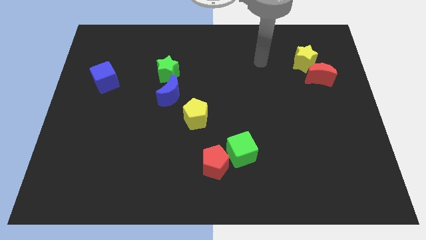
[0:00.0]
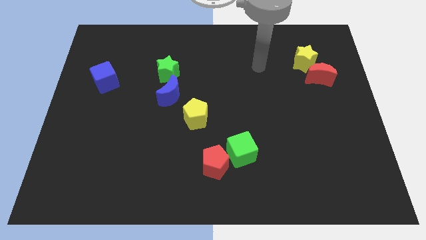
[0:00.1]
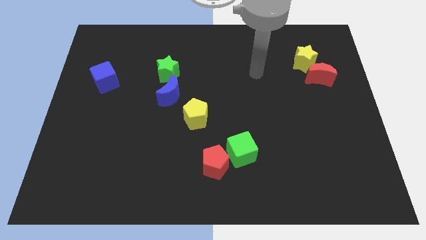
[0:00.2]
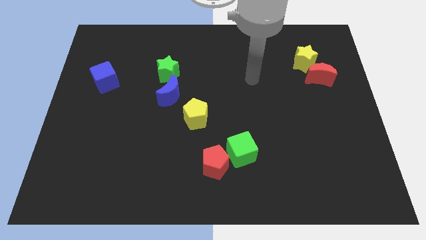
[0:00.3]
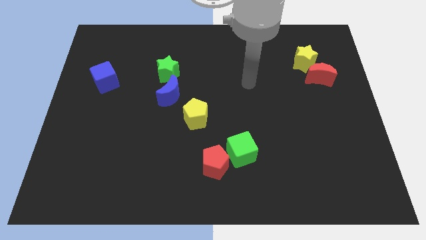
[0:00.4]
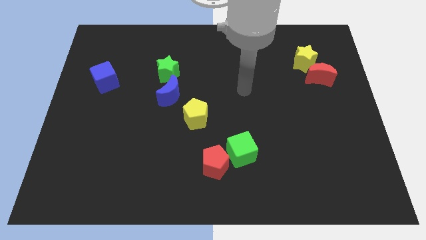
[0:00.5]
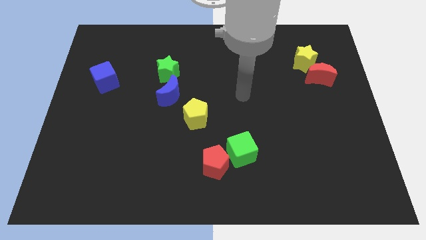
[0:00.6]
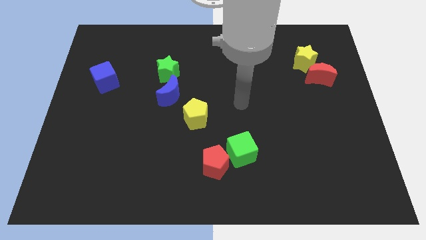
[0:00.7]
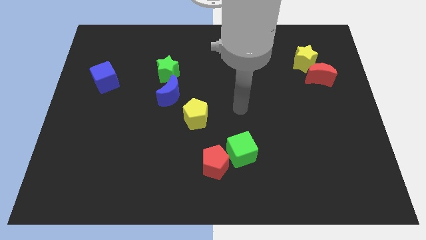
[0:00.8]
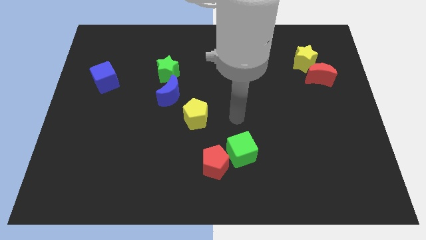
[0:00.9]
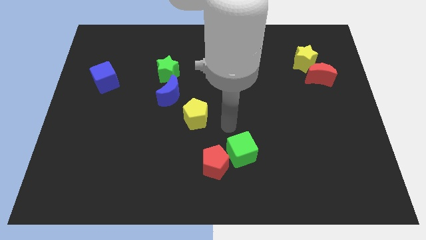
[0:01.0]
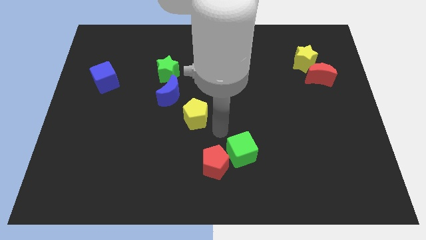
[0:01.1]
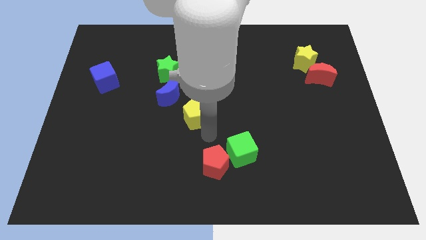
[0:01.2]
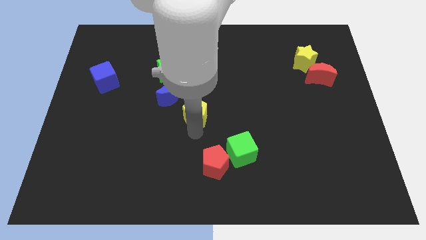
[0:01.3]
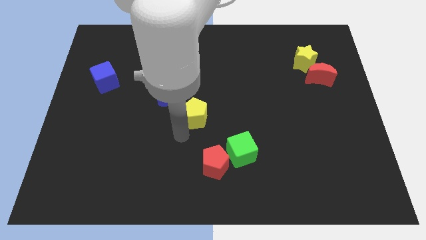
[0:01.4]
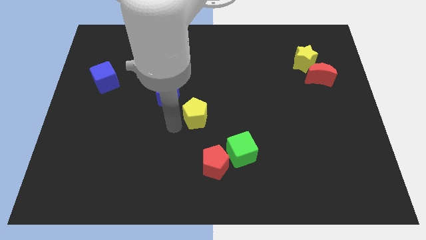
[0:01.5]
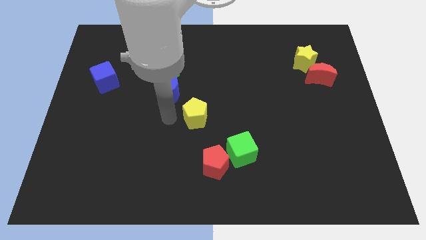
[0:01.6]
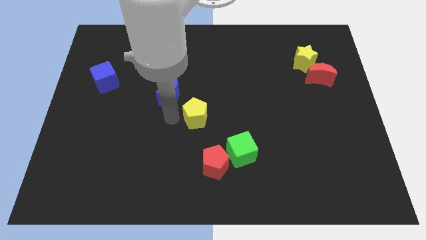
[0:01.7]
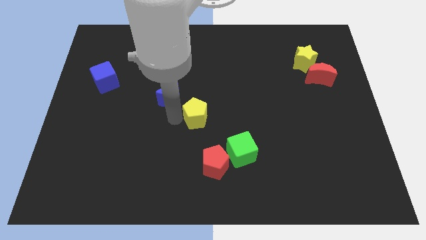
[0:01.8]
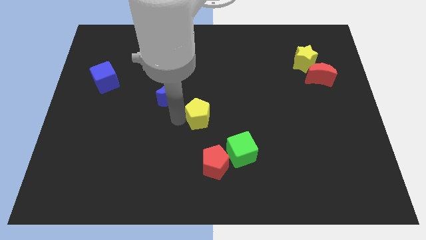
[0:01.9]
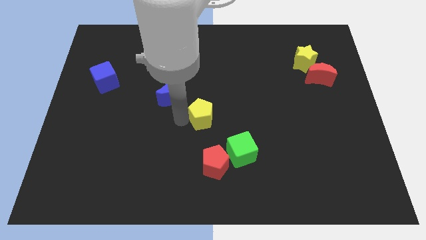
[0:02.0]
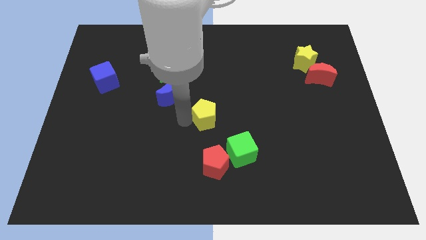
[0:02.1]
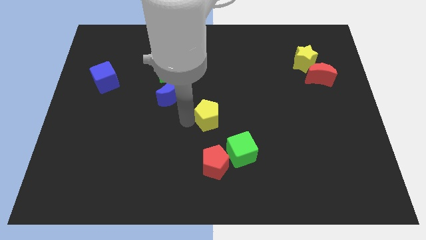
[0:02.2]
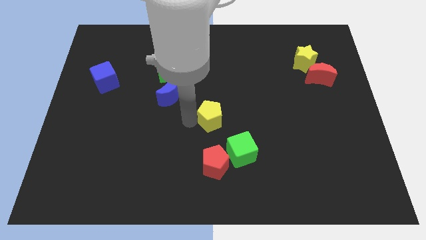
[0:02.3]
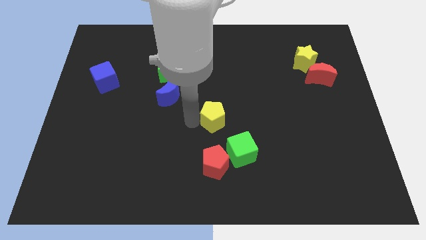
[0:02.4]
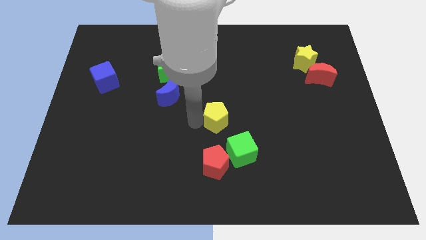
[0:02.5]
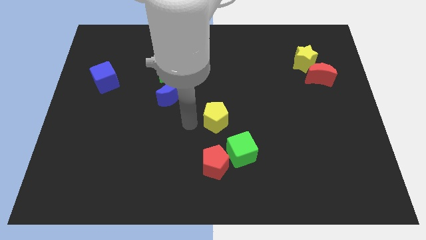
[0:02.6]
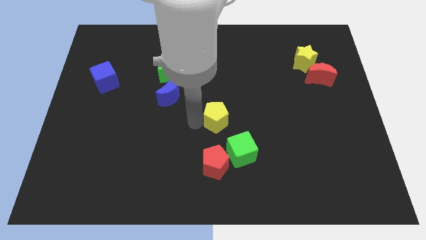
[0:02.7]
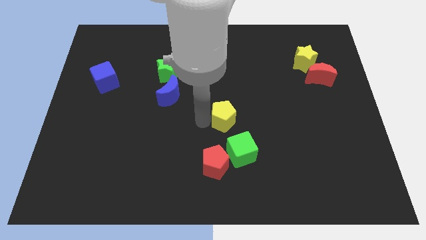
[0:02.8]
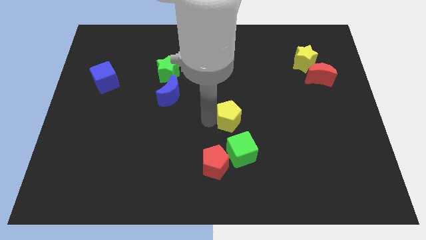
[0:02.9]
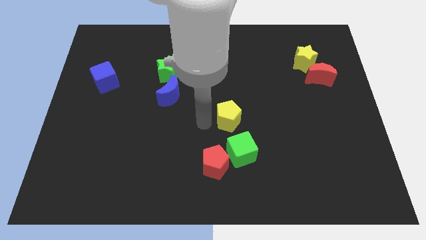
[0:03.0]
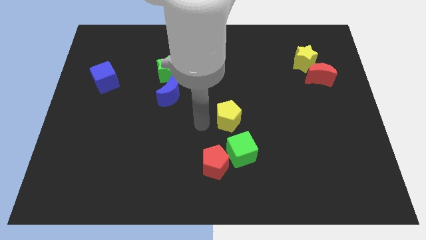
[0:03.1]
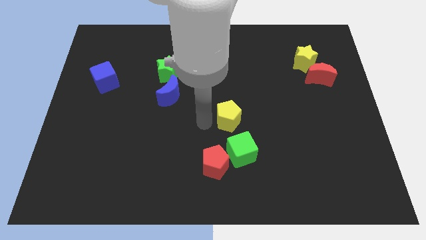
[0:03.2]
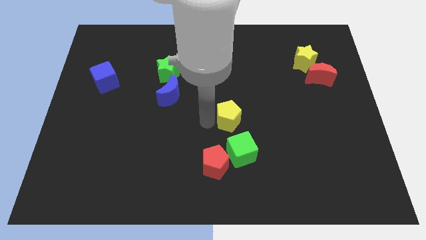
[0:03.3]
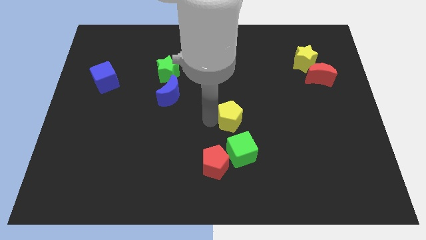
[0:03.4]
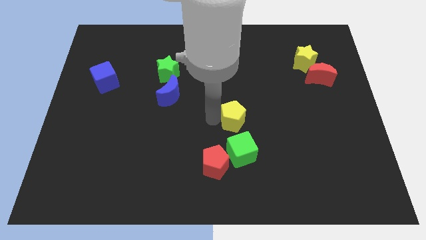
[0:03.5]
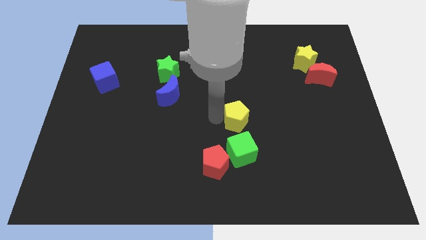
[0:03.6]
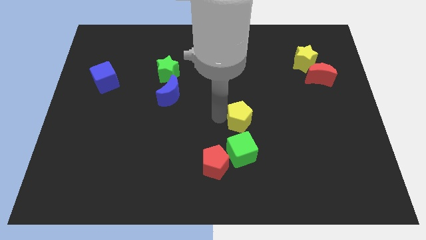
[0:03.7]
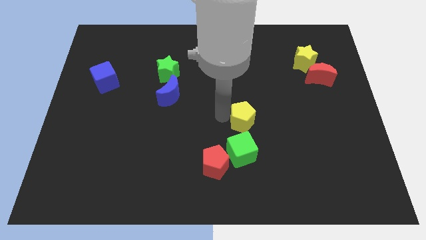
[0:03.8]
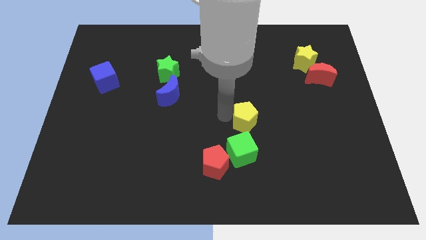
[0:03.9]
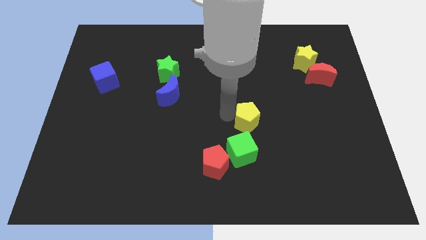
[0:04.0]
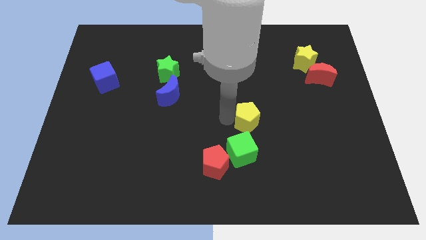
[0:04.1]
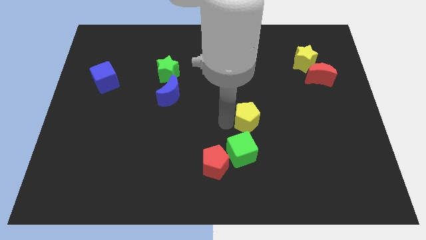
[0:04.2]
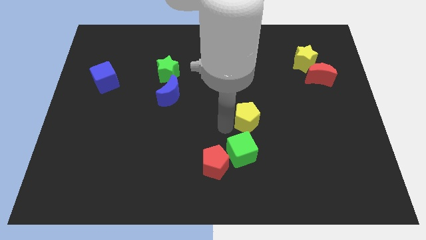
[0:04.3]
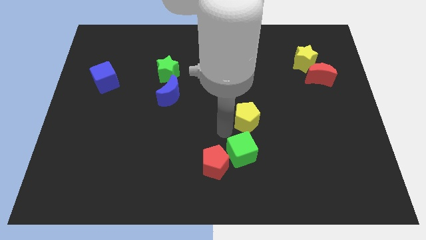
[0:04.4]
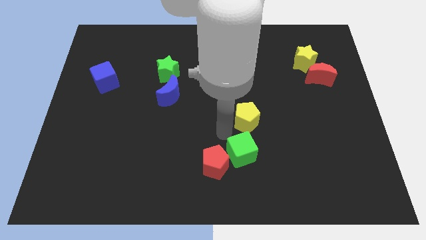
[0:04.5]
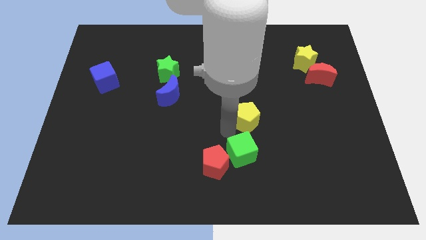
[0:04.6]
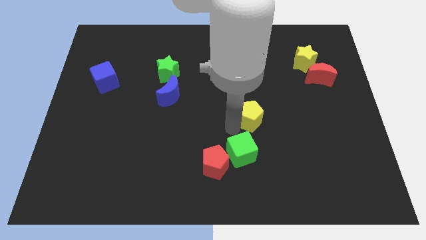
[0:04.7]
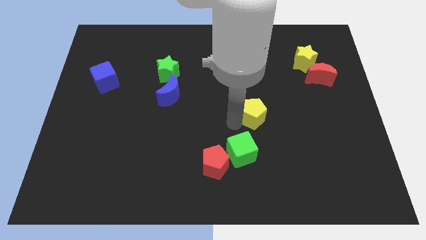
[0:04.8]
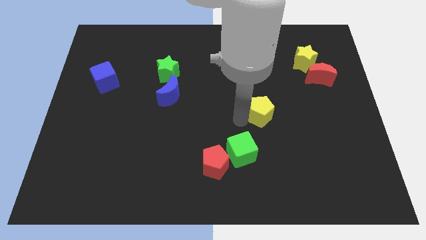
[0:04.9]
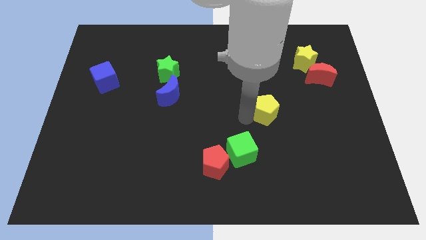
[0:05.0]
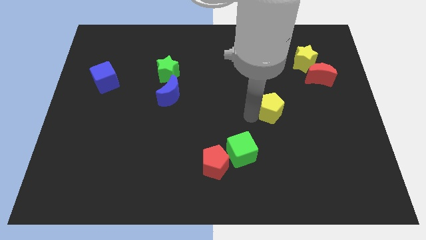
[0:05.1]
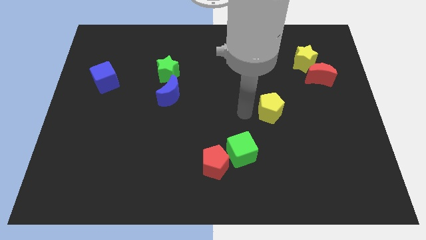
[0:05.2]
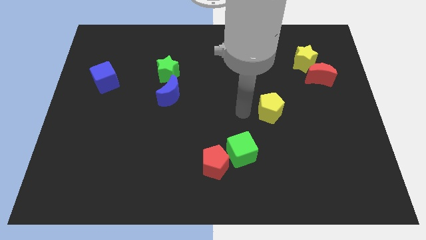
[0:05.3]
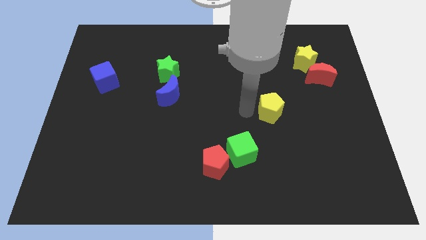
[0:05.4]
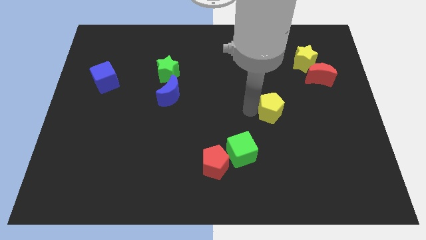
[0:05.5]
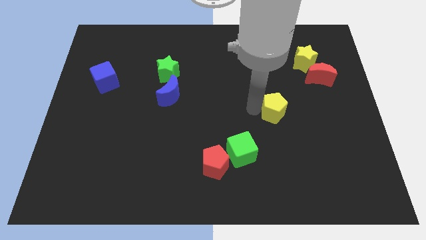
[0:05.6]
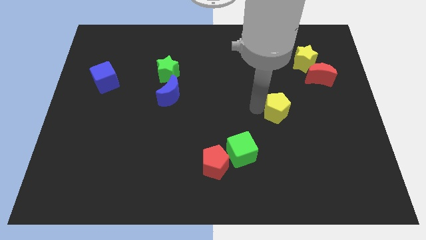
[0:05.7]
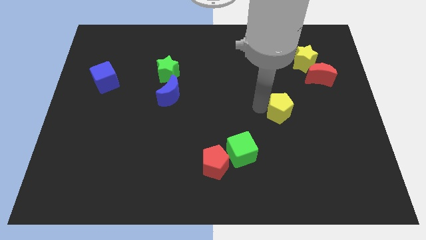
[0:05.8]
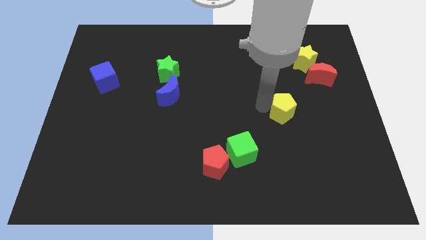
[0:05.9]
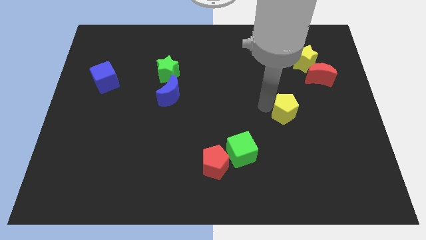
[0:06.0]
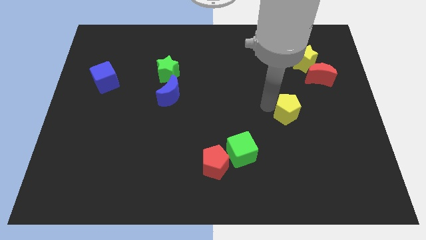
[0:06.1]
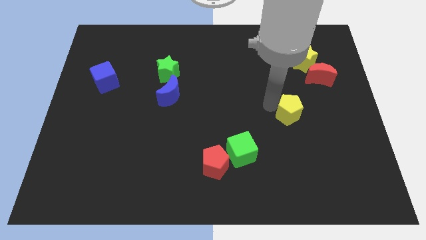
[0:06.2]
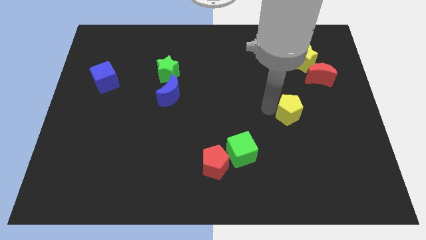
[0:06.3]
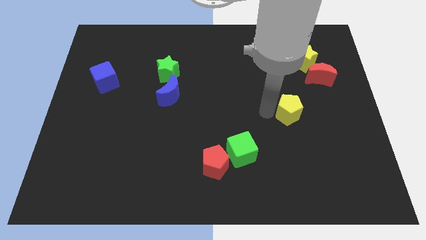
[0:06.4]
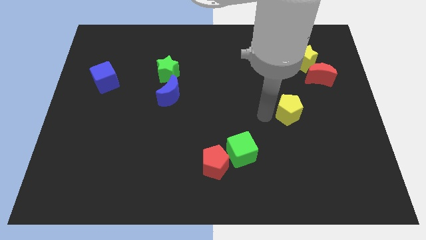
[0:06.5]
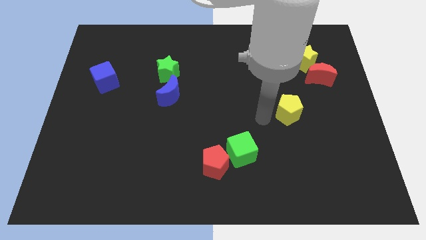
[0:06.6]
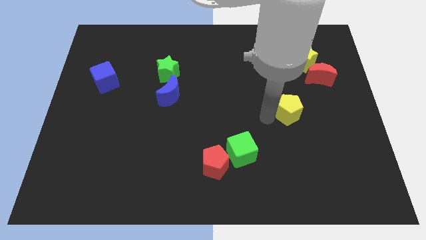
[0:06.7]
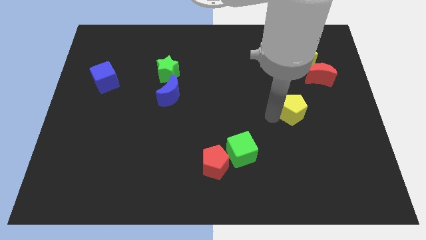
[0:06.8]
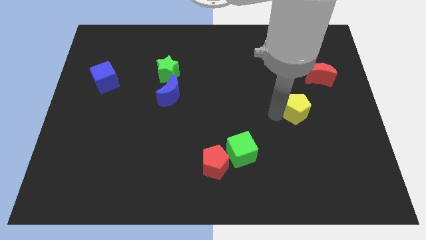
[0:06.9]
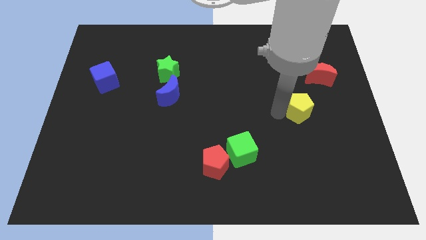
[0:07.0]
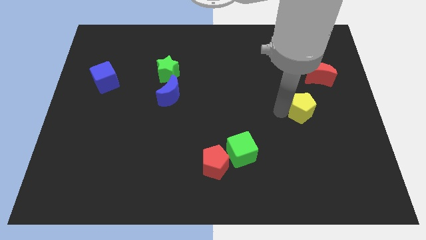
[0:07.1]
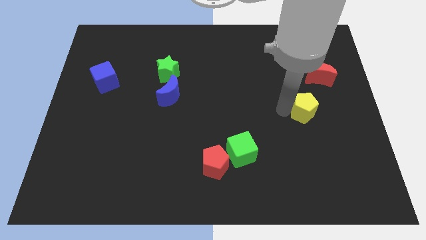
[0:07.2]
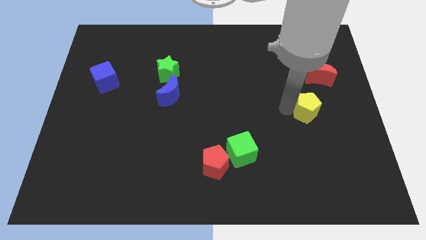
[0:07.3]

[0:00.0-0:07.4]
move the yellow pentagon below the red moon
